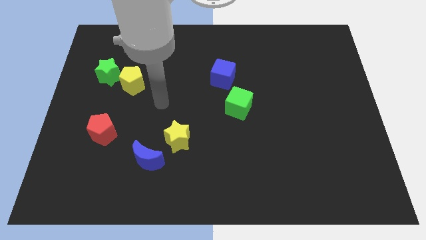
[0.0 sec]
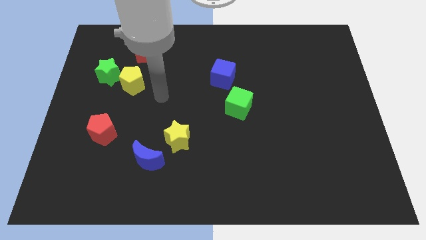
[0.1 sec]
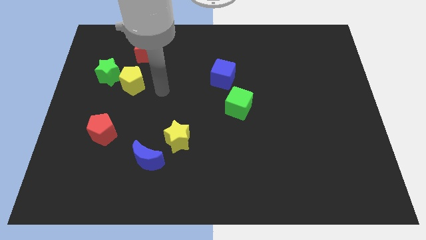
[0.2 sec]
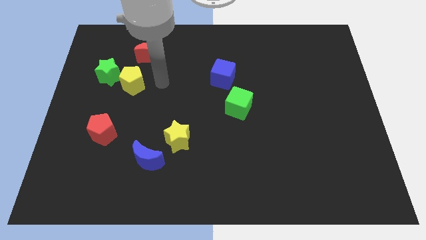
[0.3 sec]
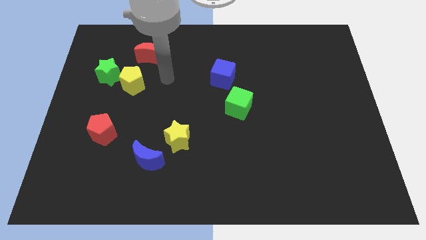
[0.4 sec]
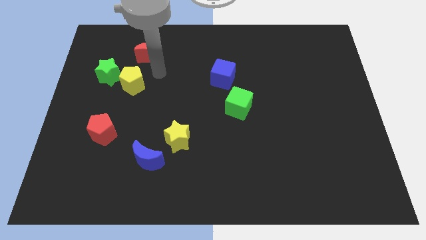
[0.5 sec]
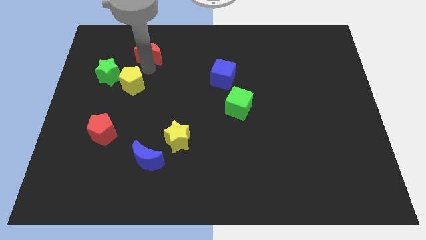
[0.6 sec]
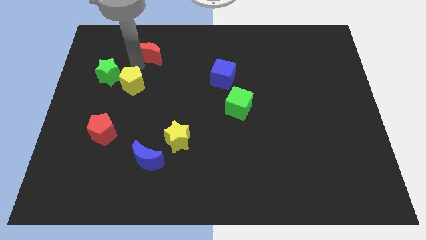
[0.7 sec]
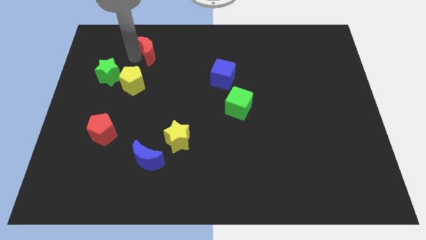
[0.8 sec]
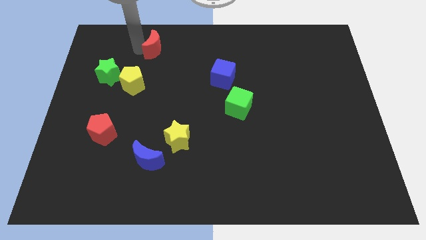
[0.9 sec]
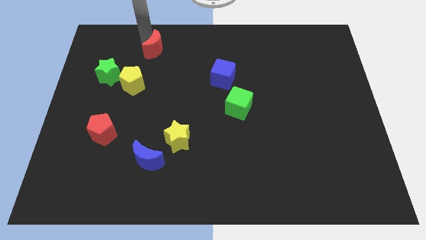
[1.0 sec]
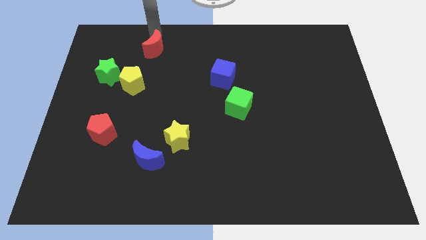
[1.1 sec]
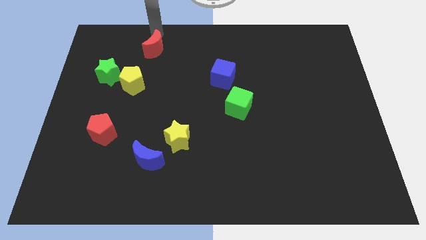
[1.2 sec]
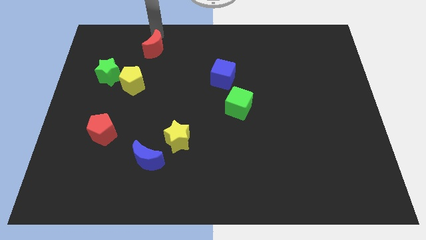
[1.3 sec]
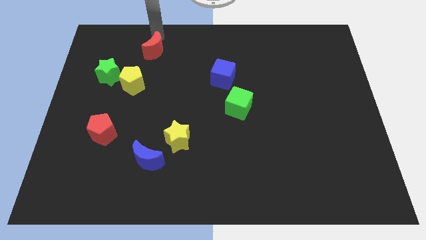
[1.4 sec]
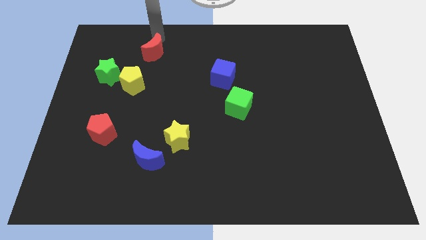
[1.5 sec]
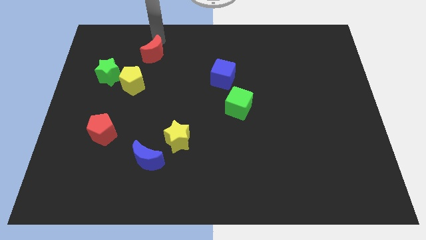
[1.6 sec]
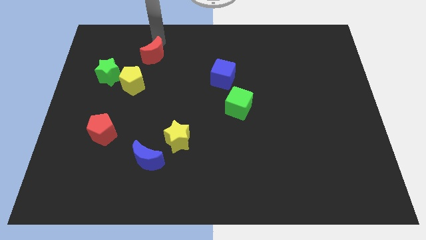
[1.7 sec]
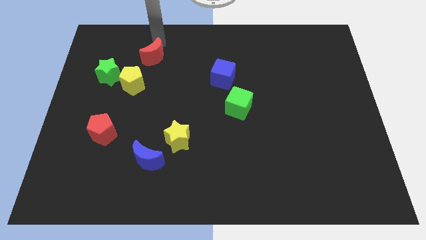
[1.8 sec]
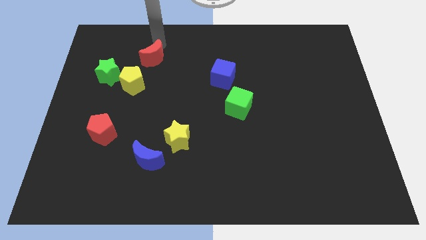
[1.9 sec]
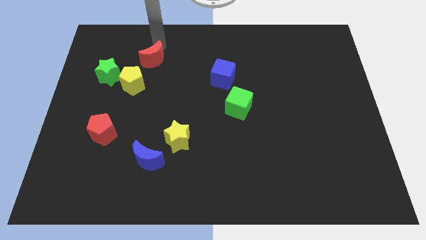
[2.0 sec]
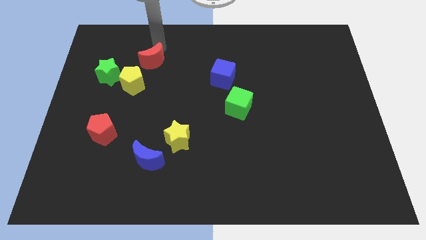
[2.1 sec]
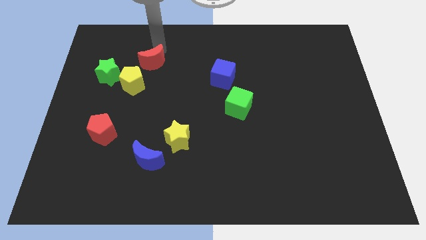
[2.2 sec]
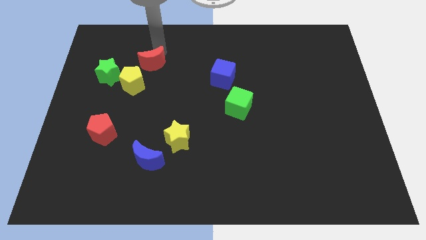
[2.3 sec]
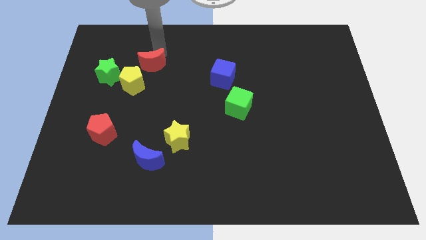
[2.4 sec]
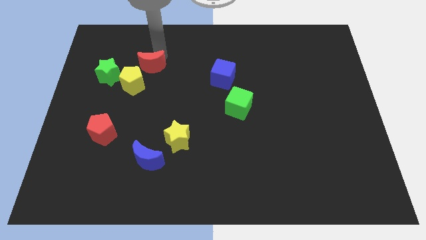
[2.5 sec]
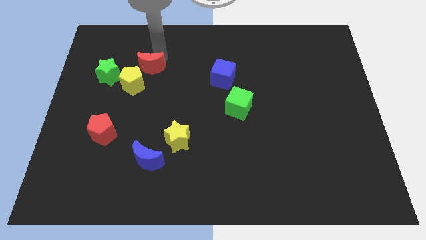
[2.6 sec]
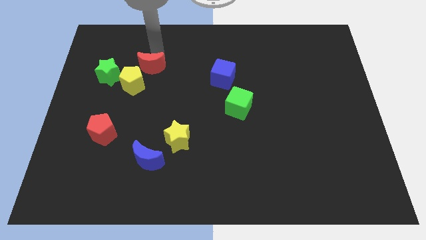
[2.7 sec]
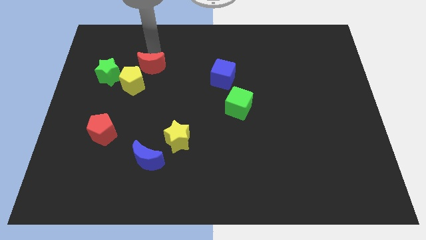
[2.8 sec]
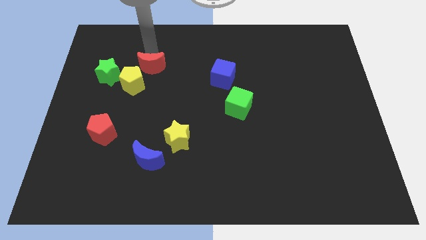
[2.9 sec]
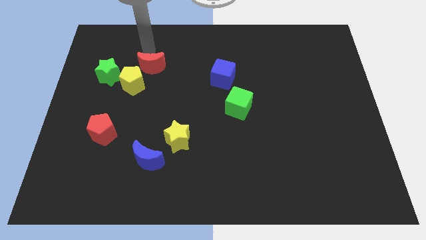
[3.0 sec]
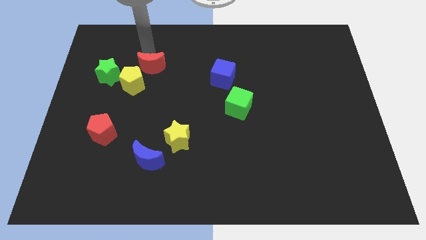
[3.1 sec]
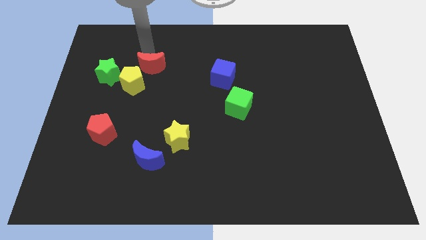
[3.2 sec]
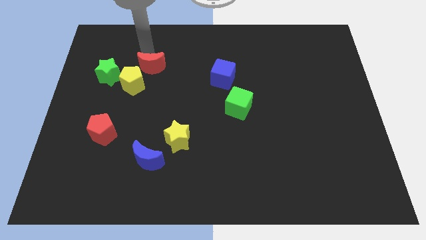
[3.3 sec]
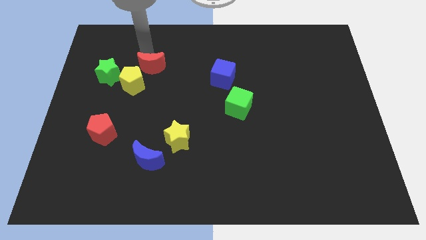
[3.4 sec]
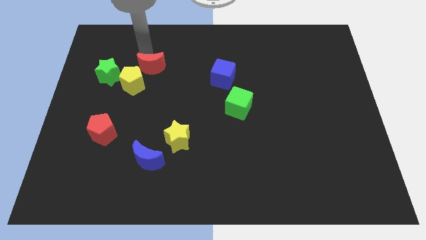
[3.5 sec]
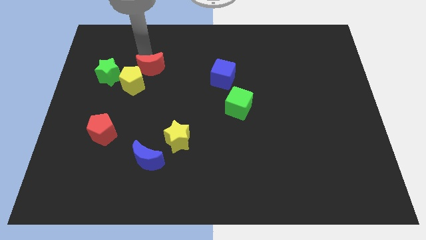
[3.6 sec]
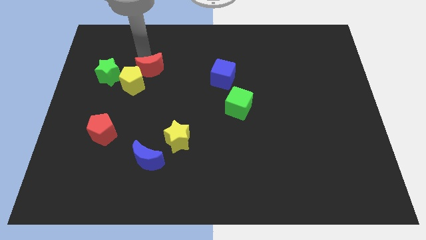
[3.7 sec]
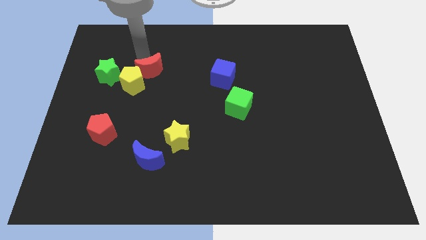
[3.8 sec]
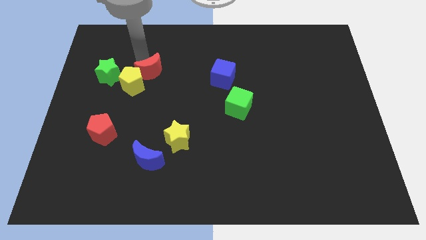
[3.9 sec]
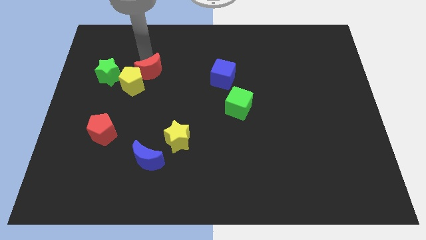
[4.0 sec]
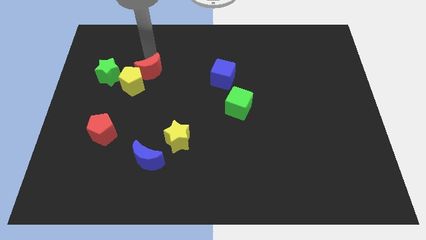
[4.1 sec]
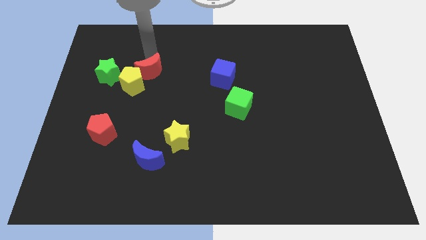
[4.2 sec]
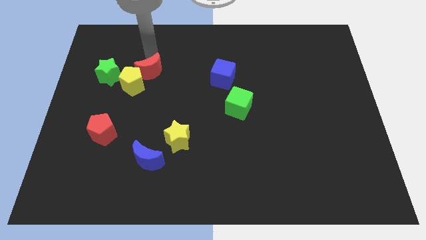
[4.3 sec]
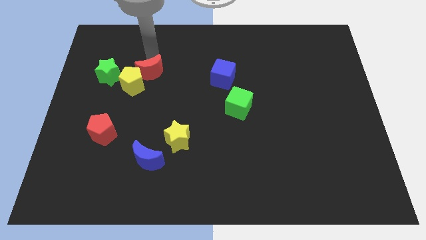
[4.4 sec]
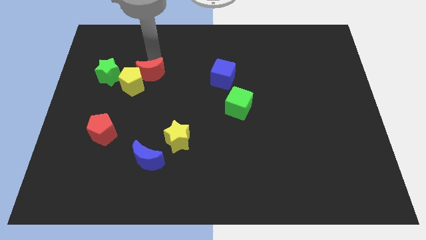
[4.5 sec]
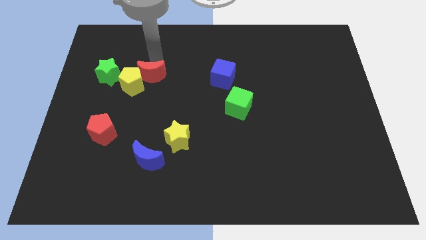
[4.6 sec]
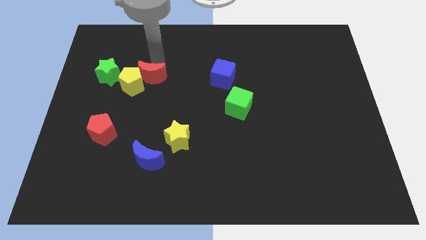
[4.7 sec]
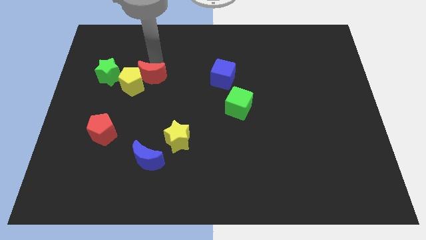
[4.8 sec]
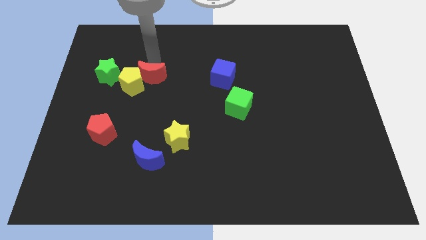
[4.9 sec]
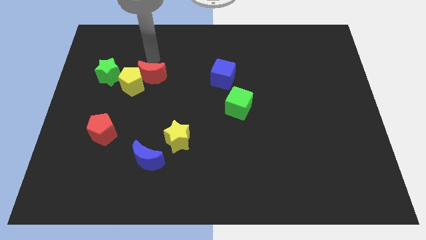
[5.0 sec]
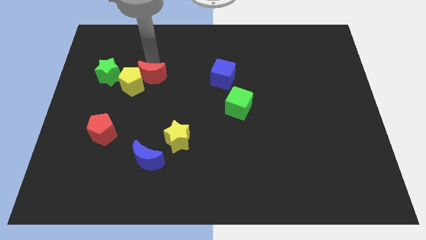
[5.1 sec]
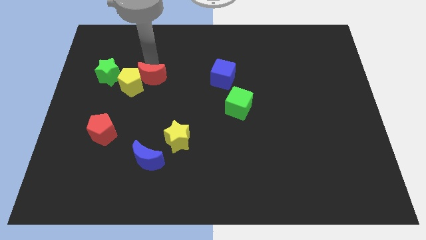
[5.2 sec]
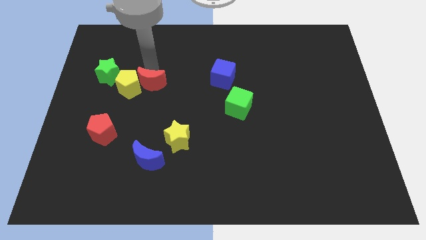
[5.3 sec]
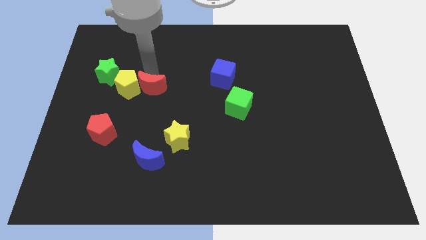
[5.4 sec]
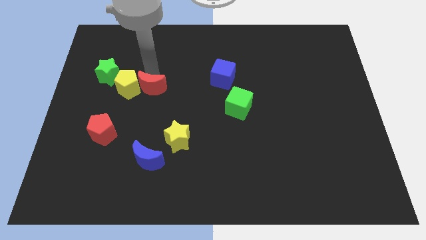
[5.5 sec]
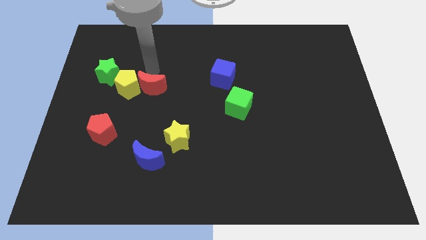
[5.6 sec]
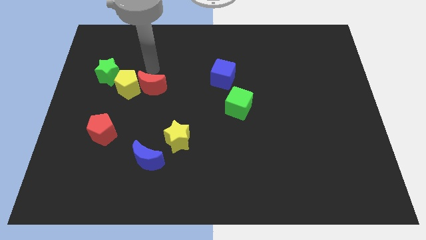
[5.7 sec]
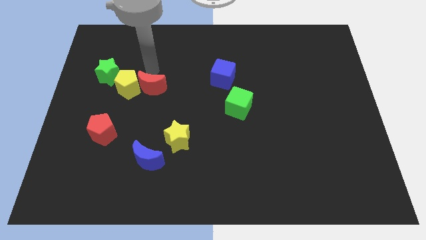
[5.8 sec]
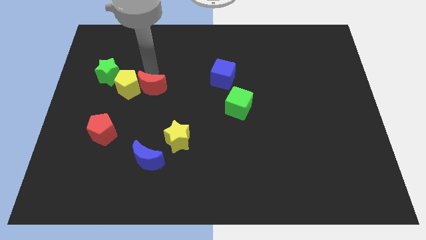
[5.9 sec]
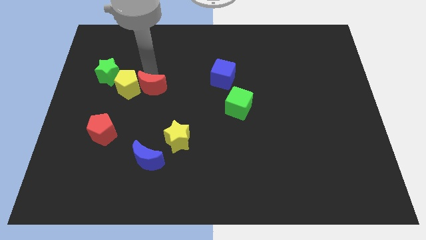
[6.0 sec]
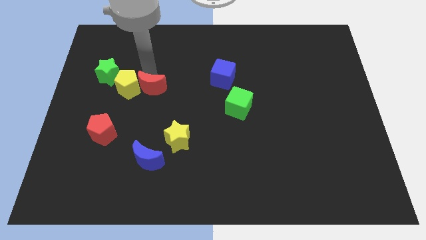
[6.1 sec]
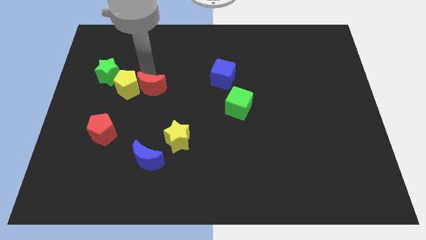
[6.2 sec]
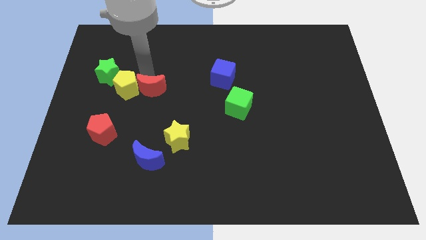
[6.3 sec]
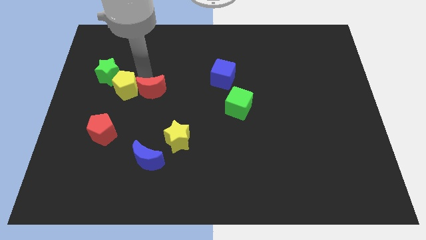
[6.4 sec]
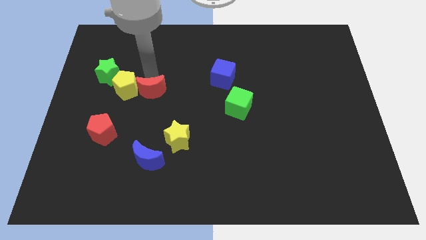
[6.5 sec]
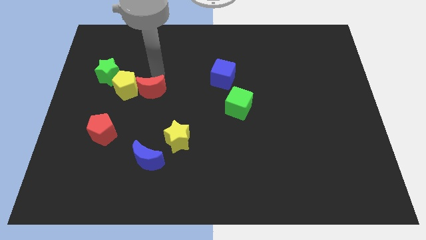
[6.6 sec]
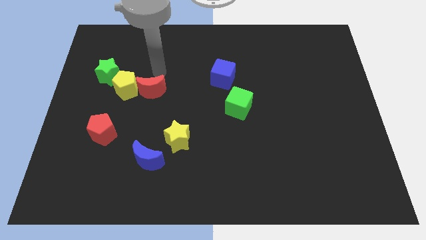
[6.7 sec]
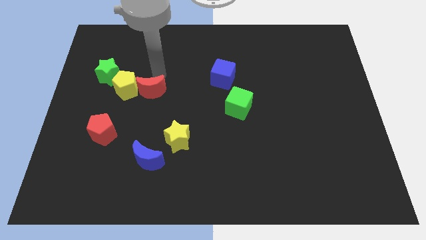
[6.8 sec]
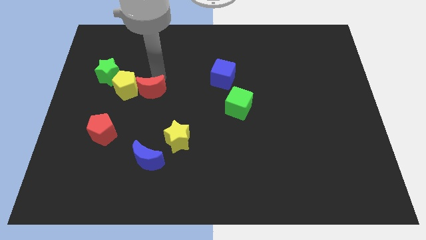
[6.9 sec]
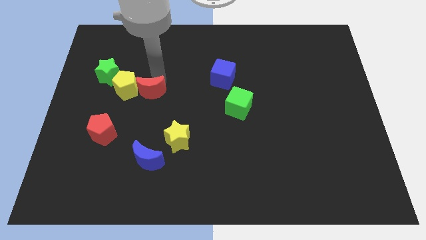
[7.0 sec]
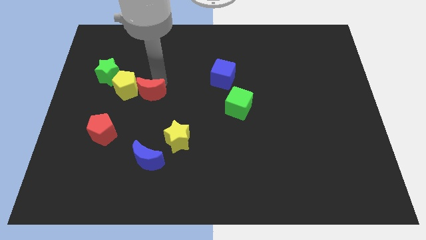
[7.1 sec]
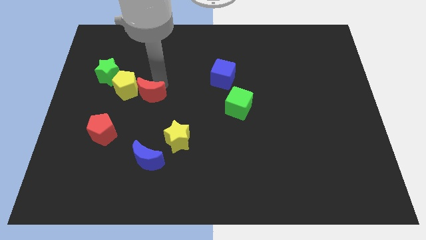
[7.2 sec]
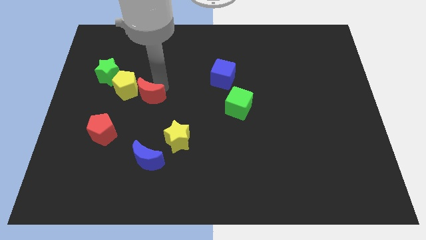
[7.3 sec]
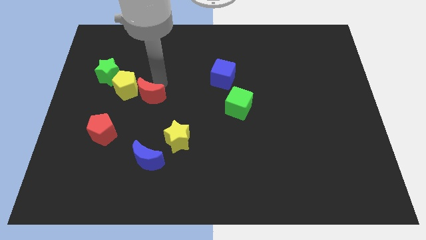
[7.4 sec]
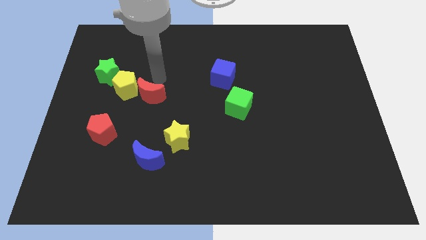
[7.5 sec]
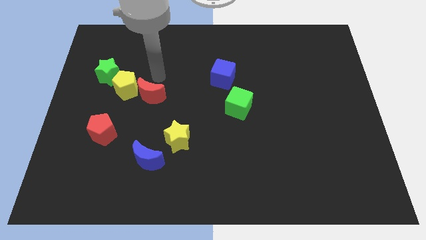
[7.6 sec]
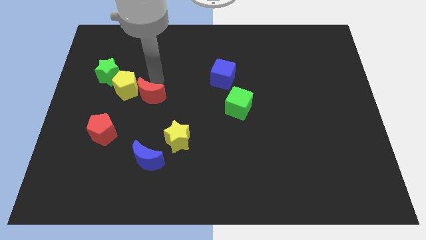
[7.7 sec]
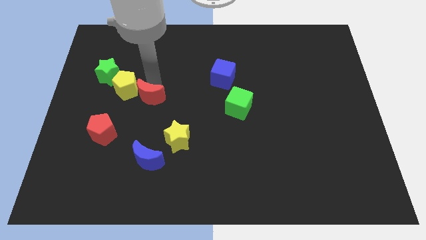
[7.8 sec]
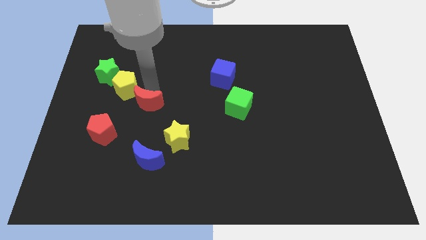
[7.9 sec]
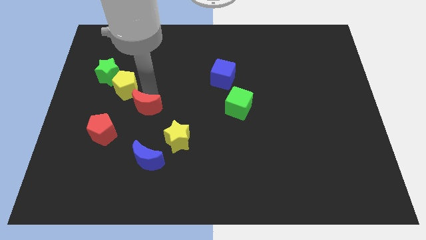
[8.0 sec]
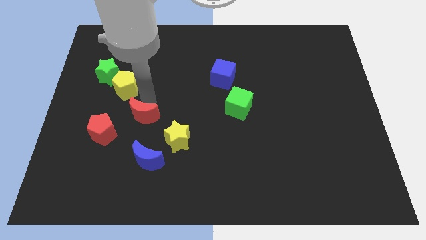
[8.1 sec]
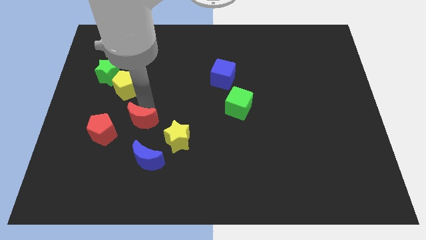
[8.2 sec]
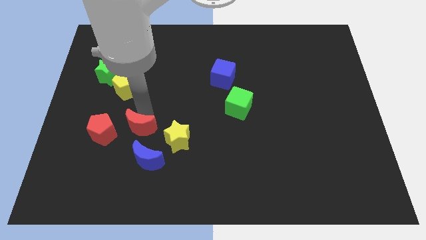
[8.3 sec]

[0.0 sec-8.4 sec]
put the red moon to the left of the yellow star
